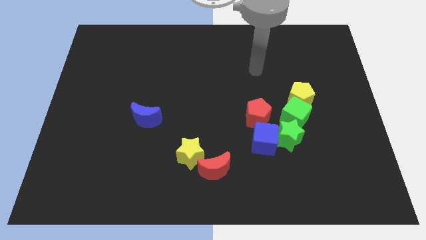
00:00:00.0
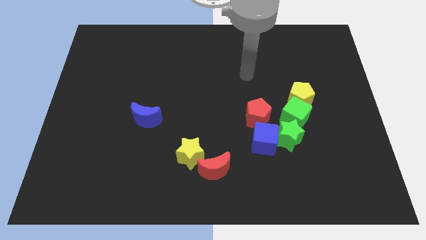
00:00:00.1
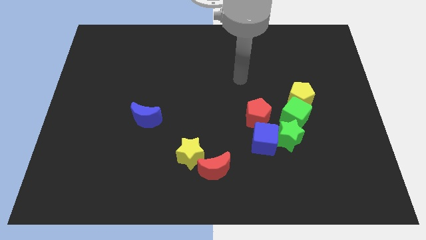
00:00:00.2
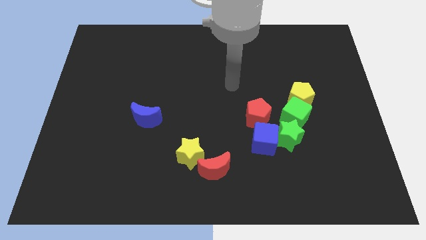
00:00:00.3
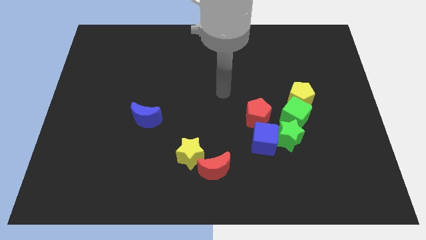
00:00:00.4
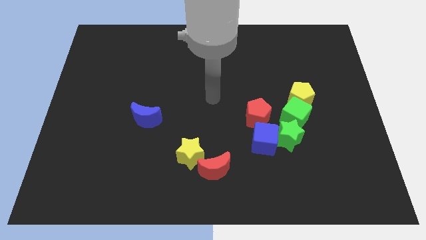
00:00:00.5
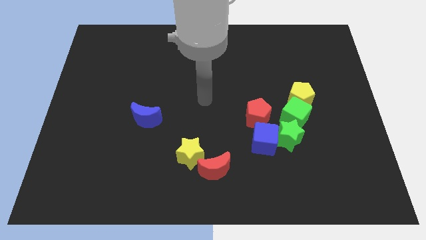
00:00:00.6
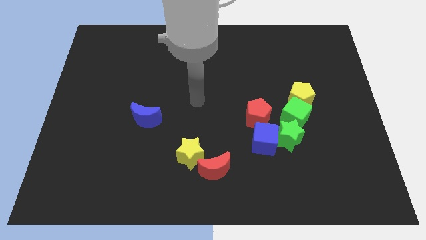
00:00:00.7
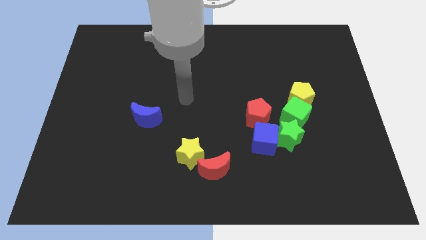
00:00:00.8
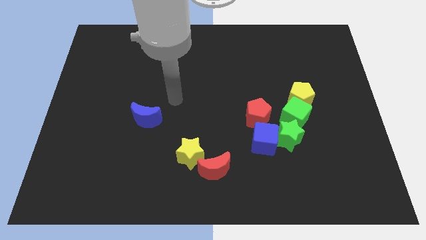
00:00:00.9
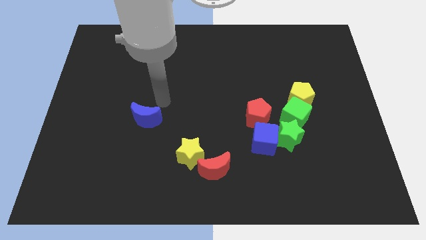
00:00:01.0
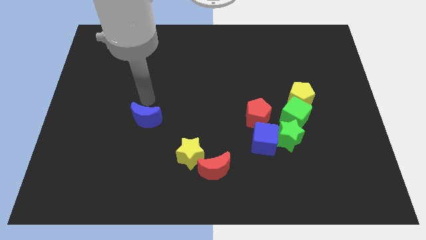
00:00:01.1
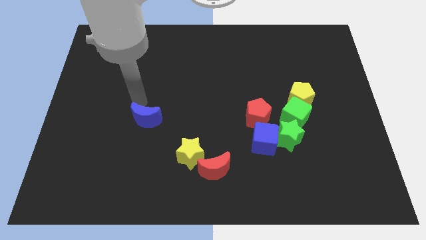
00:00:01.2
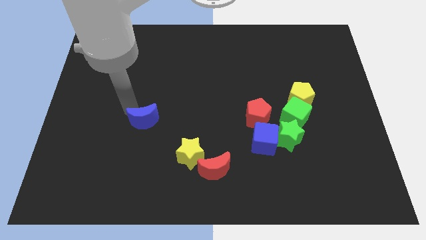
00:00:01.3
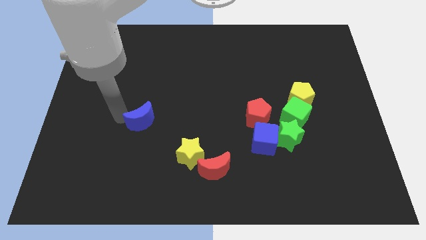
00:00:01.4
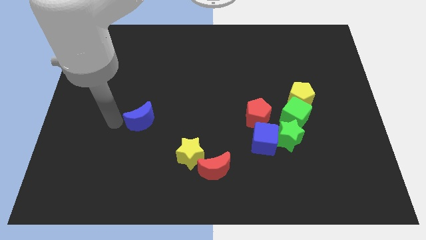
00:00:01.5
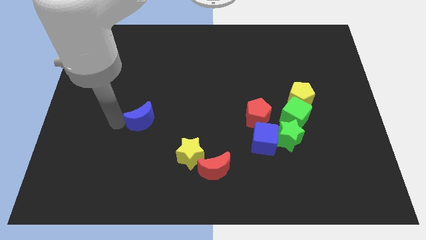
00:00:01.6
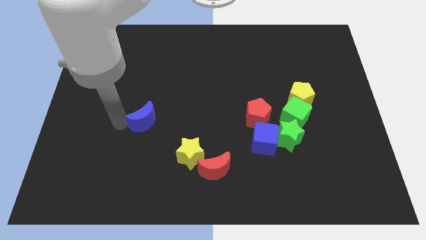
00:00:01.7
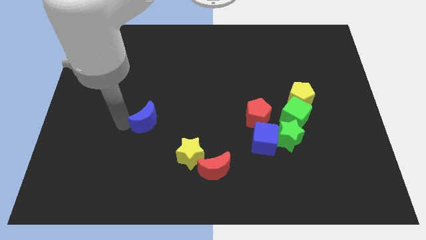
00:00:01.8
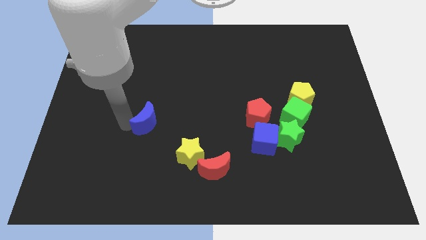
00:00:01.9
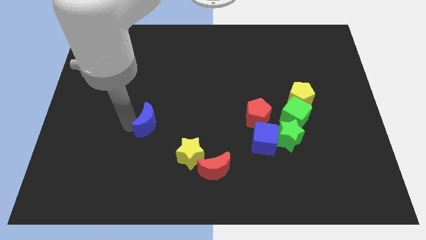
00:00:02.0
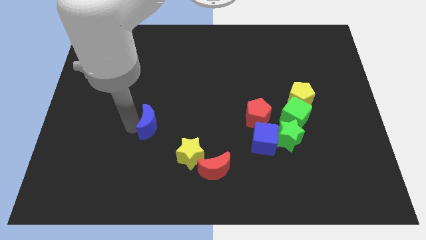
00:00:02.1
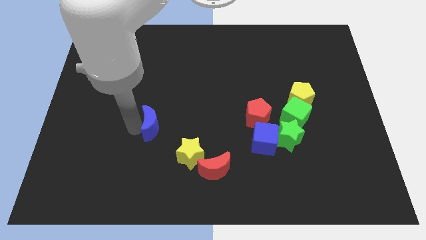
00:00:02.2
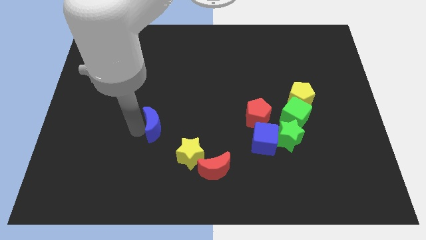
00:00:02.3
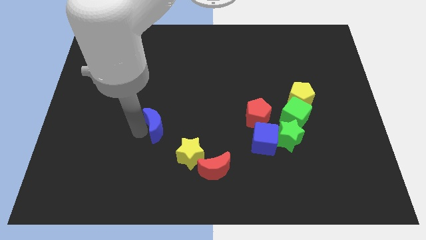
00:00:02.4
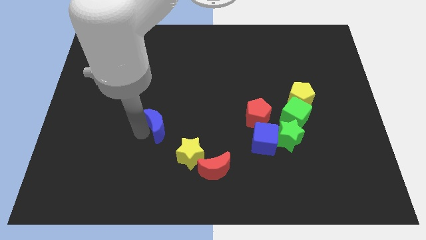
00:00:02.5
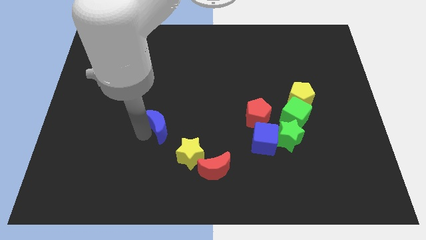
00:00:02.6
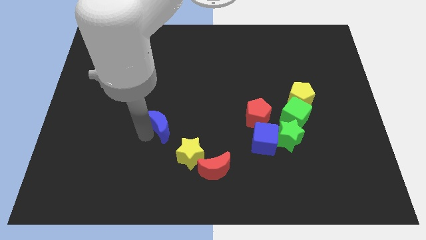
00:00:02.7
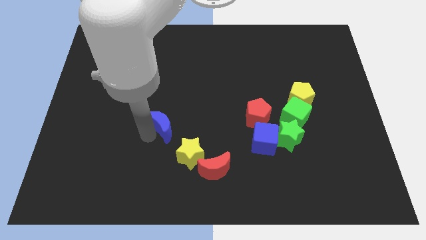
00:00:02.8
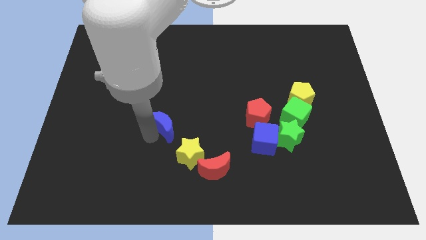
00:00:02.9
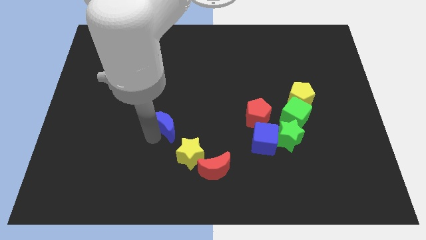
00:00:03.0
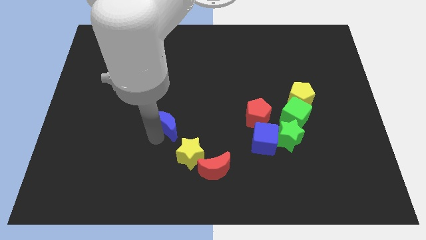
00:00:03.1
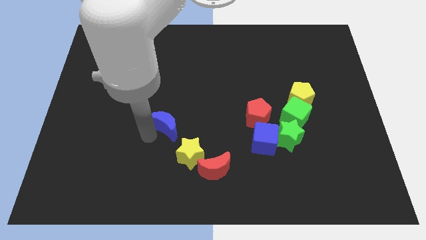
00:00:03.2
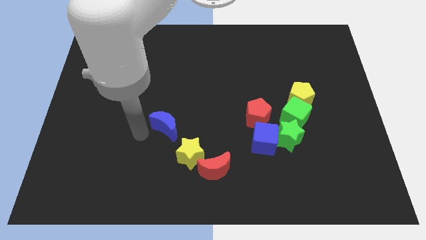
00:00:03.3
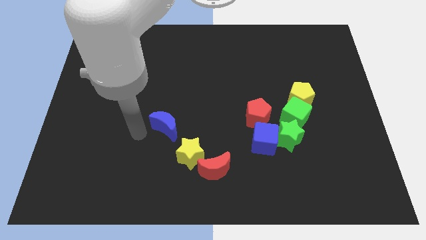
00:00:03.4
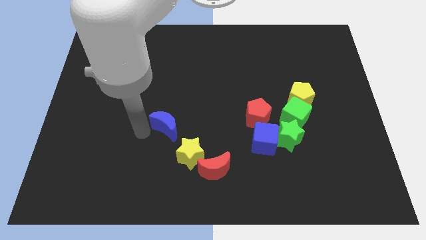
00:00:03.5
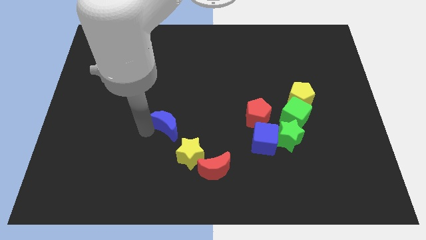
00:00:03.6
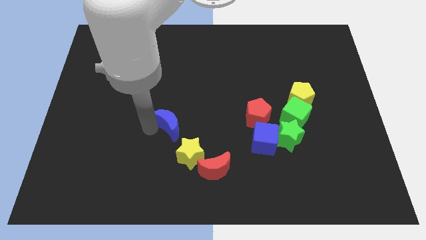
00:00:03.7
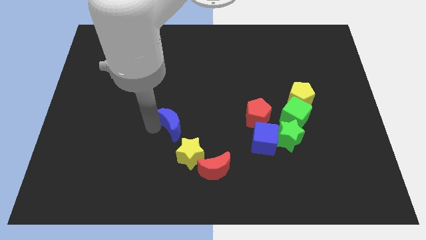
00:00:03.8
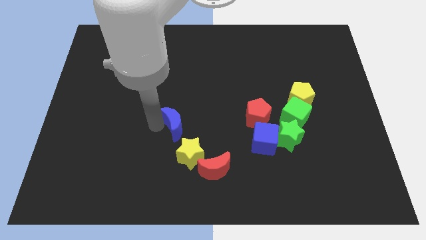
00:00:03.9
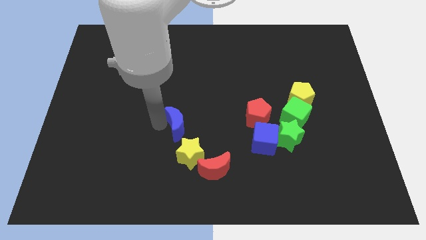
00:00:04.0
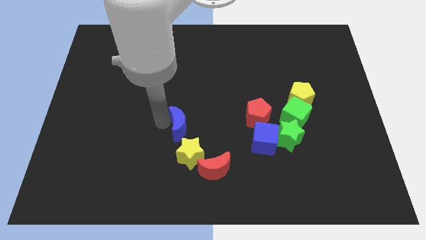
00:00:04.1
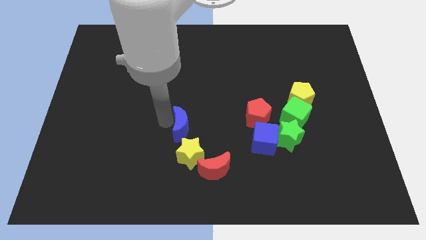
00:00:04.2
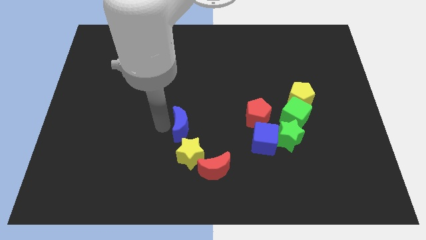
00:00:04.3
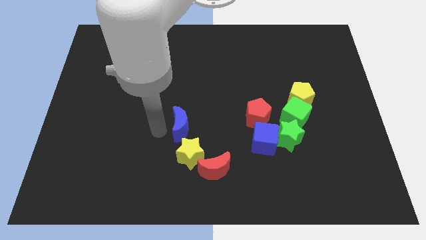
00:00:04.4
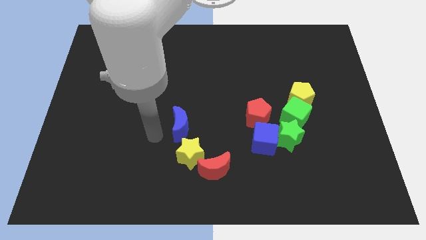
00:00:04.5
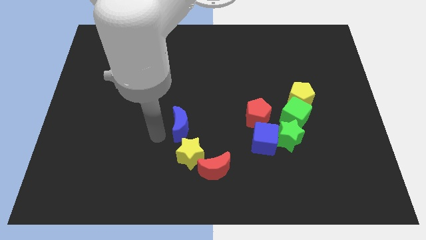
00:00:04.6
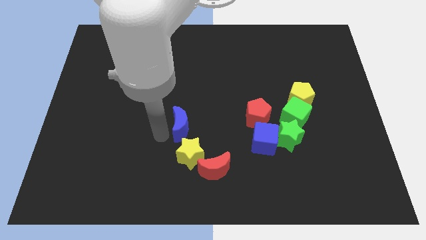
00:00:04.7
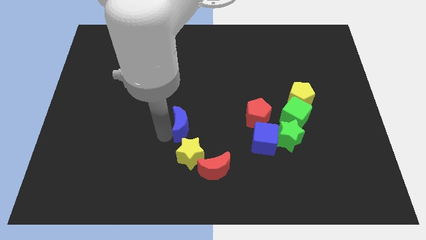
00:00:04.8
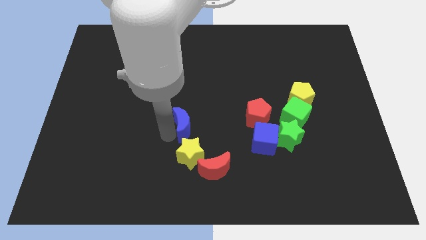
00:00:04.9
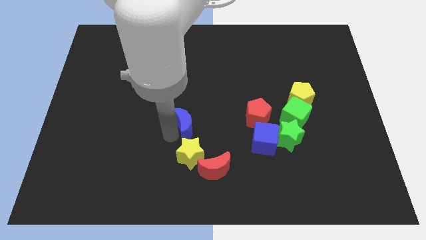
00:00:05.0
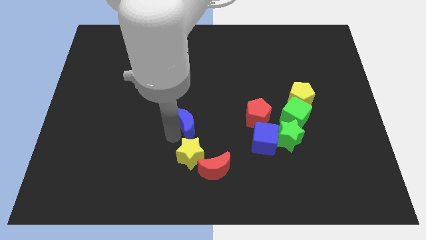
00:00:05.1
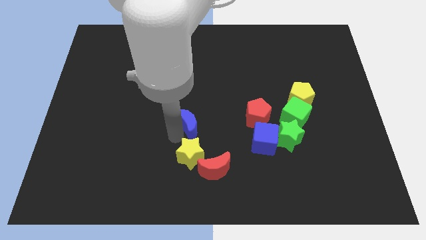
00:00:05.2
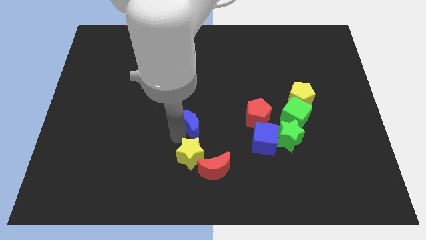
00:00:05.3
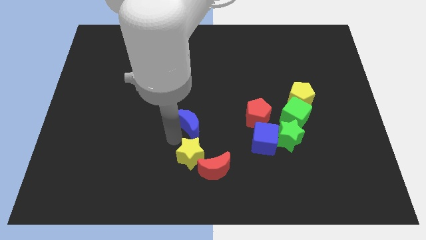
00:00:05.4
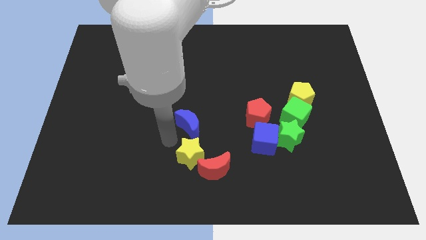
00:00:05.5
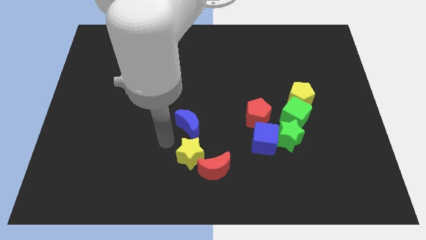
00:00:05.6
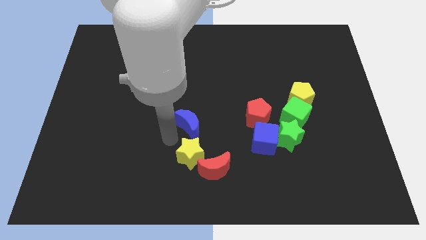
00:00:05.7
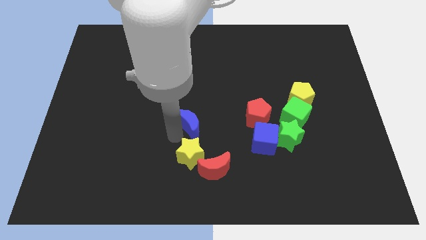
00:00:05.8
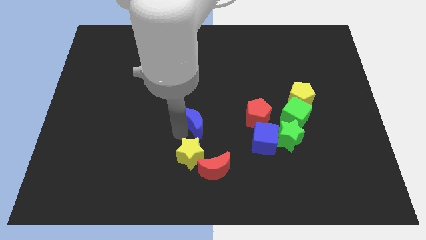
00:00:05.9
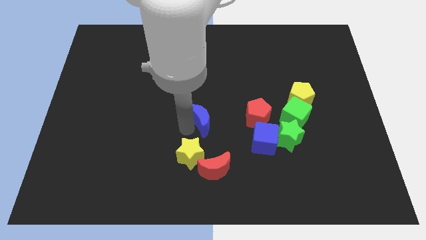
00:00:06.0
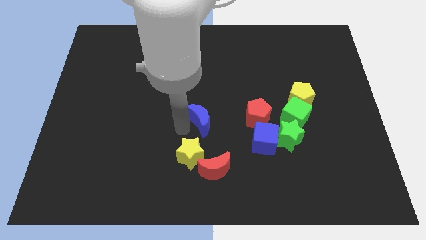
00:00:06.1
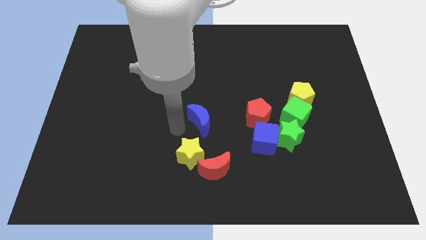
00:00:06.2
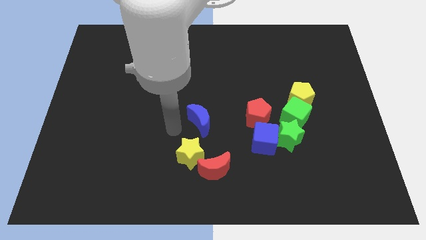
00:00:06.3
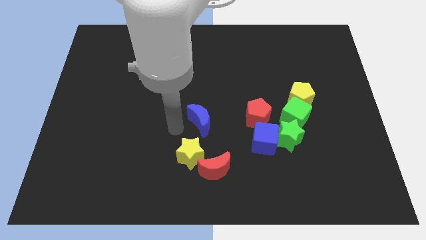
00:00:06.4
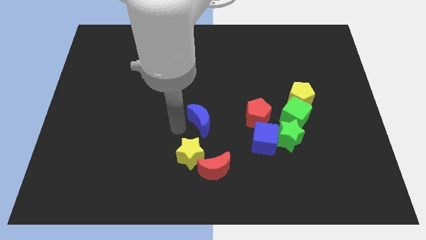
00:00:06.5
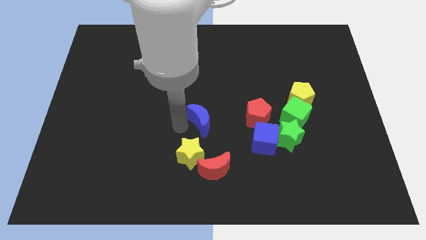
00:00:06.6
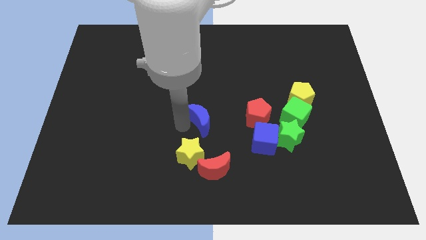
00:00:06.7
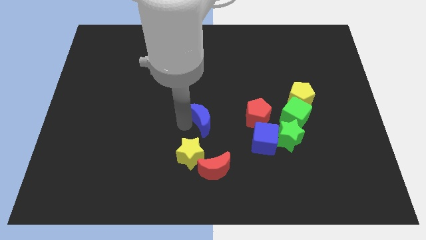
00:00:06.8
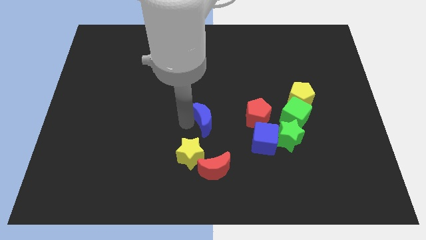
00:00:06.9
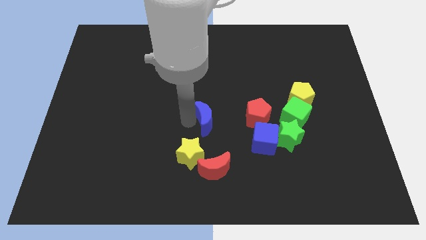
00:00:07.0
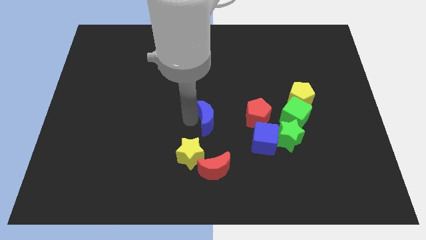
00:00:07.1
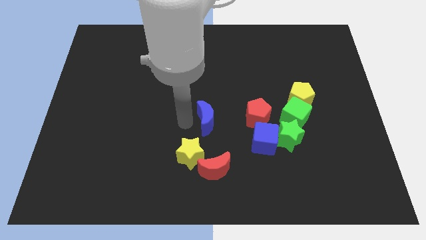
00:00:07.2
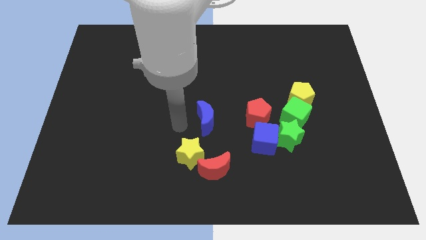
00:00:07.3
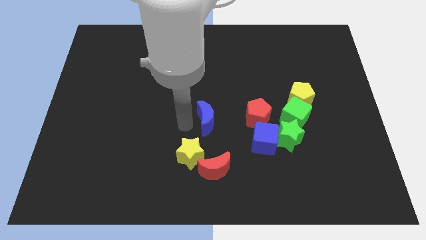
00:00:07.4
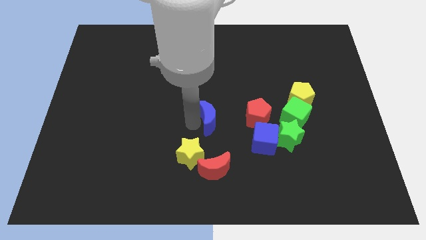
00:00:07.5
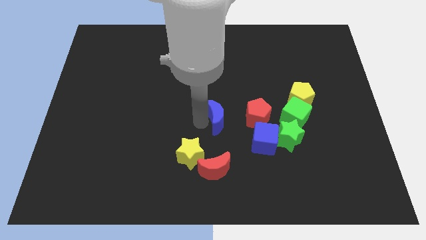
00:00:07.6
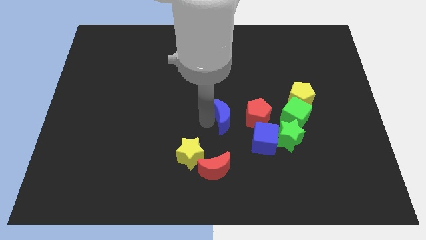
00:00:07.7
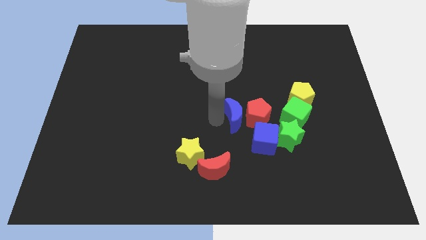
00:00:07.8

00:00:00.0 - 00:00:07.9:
push the blue moon towards the red pentagon
